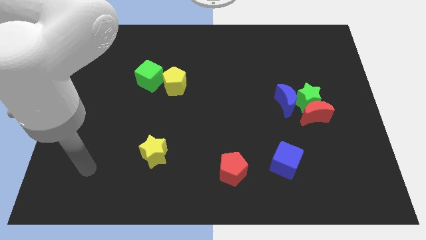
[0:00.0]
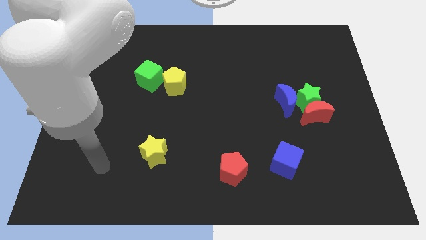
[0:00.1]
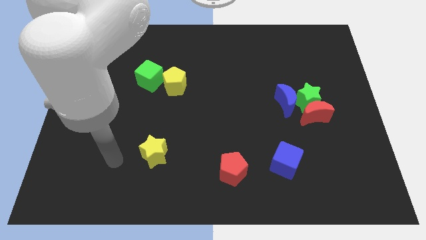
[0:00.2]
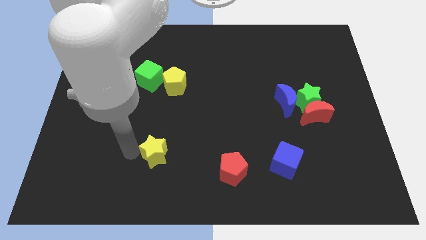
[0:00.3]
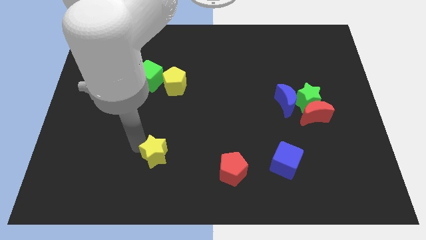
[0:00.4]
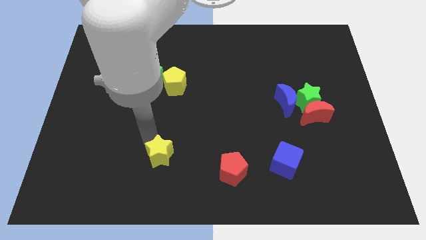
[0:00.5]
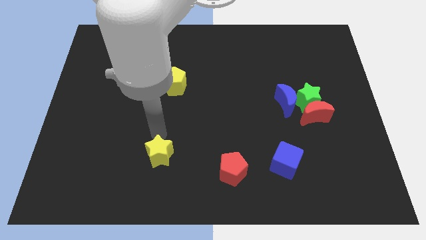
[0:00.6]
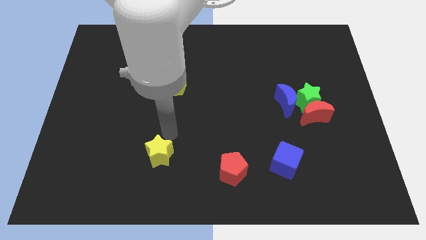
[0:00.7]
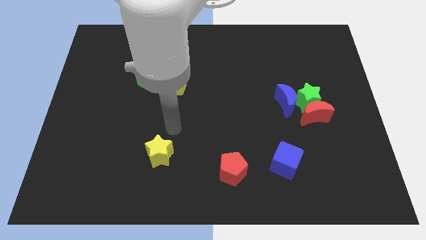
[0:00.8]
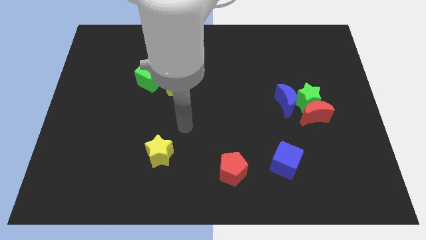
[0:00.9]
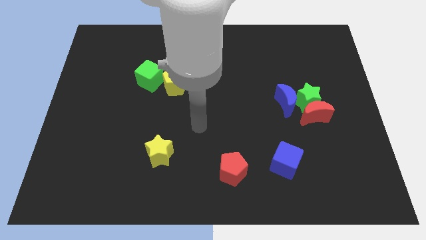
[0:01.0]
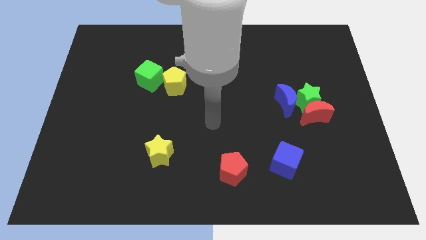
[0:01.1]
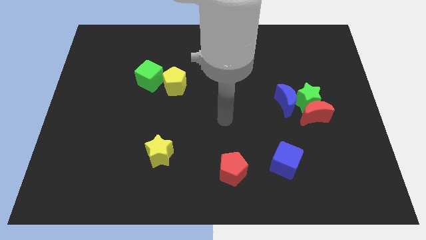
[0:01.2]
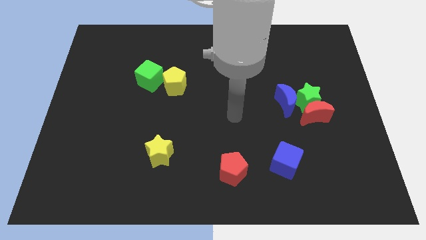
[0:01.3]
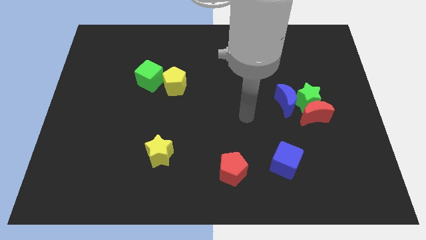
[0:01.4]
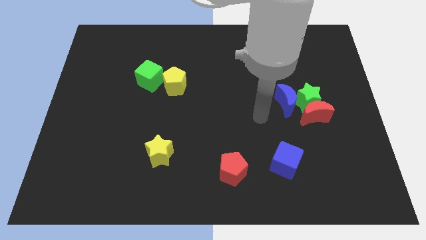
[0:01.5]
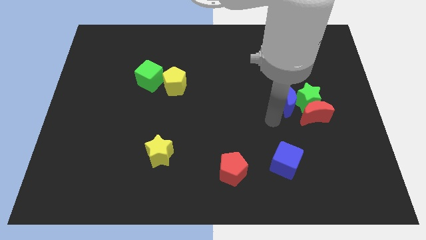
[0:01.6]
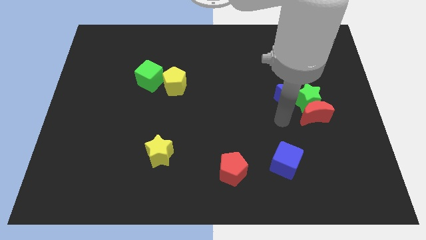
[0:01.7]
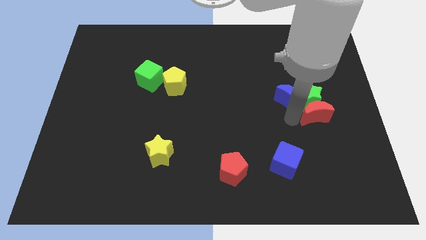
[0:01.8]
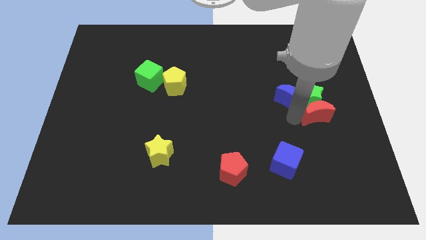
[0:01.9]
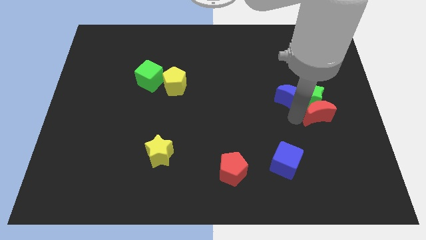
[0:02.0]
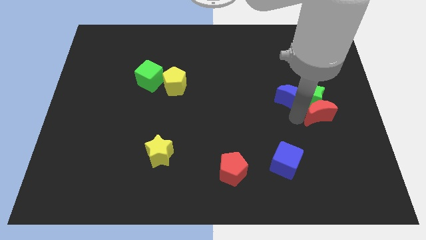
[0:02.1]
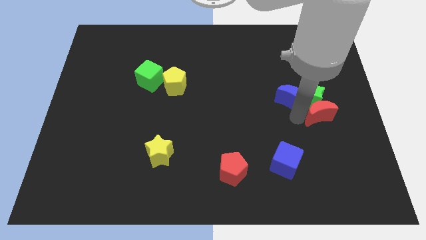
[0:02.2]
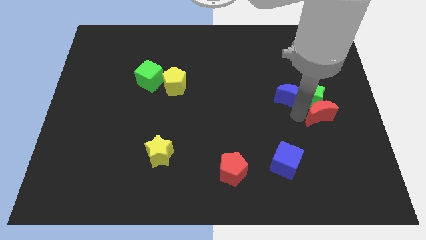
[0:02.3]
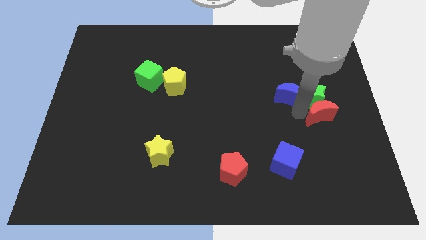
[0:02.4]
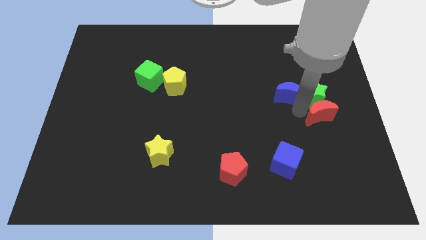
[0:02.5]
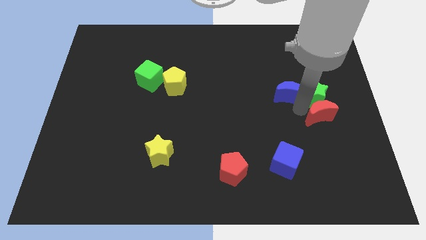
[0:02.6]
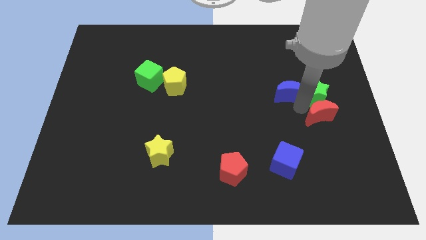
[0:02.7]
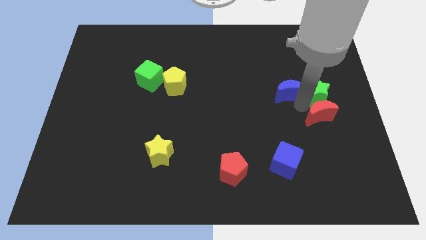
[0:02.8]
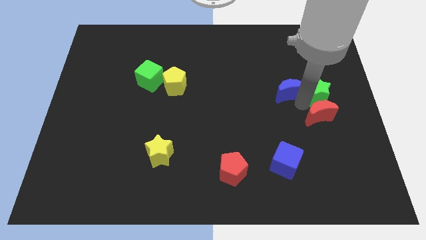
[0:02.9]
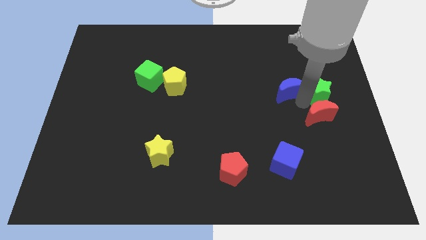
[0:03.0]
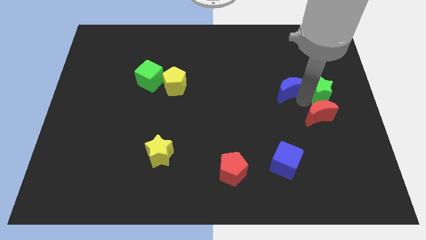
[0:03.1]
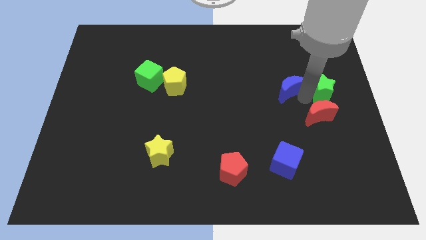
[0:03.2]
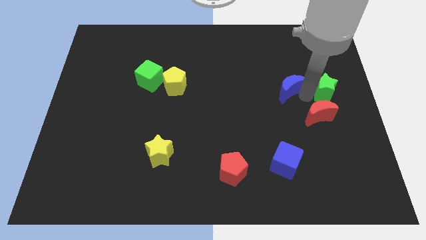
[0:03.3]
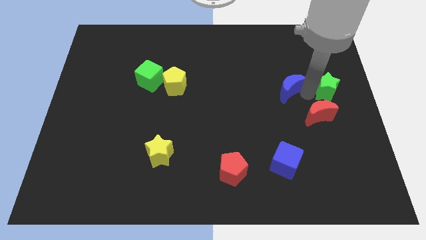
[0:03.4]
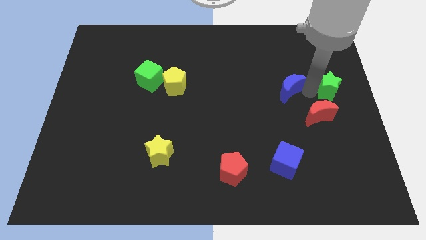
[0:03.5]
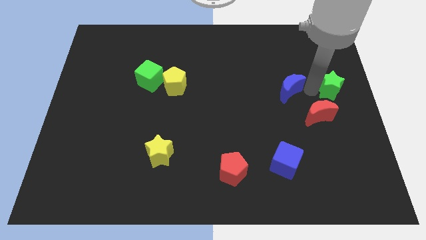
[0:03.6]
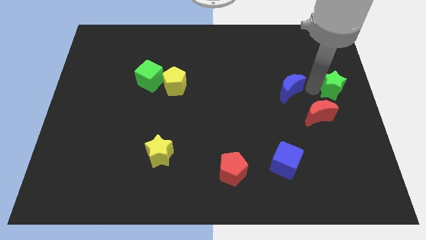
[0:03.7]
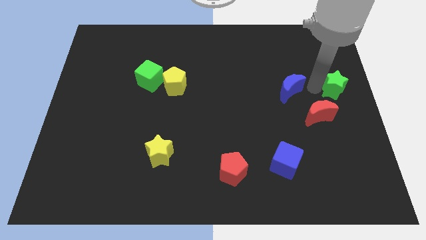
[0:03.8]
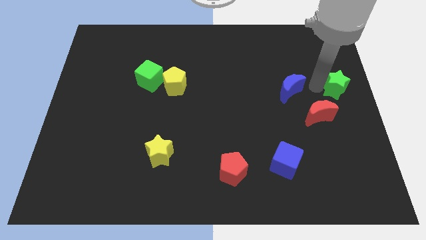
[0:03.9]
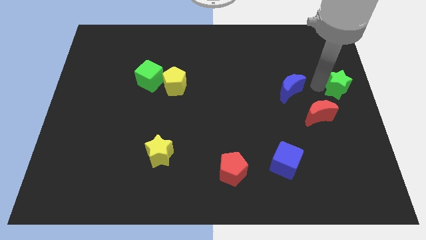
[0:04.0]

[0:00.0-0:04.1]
move the green star away from the red moon and blue moon

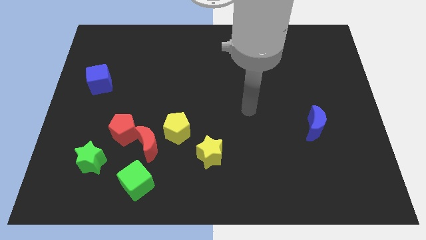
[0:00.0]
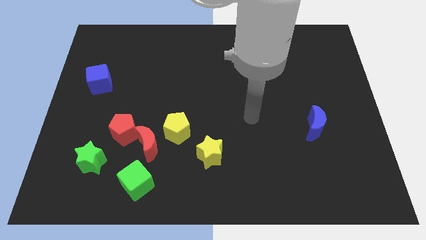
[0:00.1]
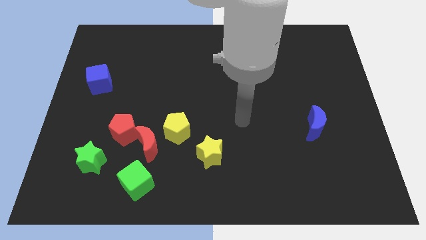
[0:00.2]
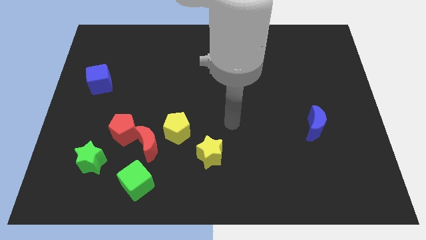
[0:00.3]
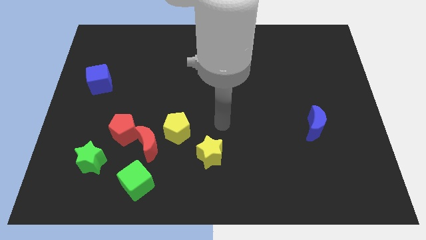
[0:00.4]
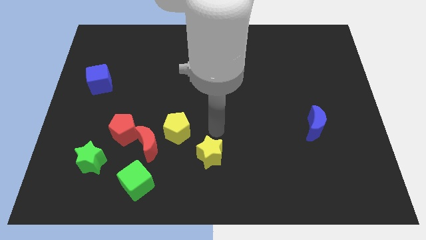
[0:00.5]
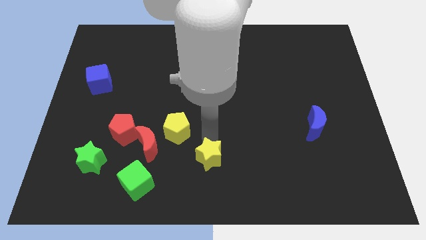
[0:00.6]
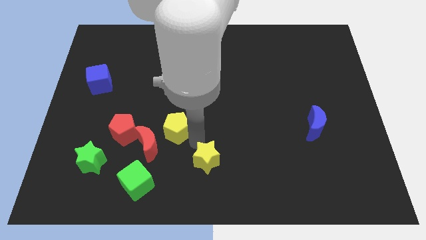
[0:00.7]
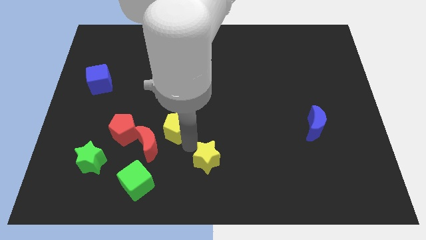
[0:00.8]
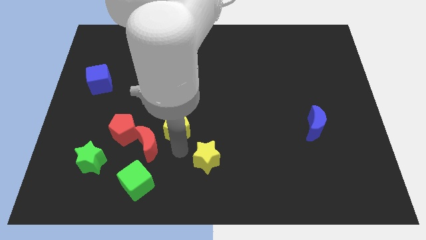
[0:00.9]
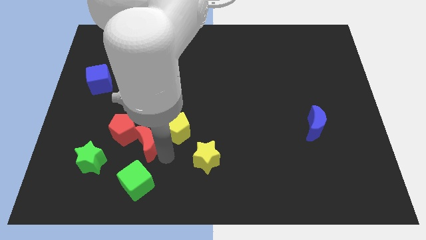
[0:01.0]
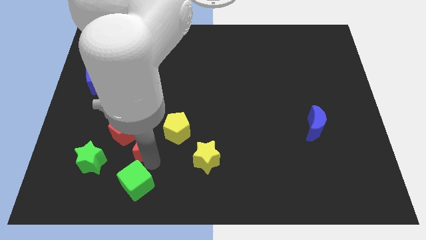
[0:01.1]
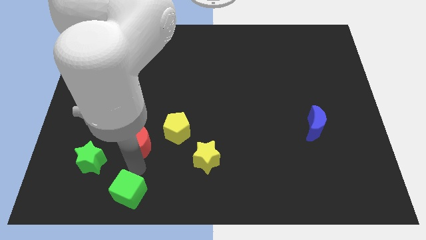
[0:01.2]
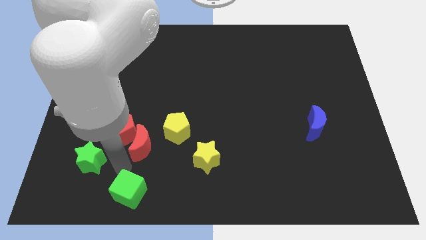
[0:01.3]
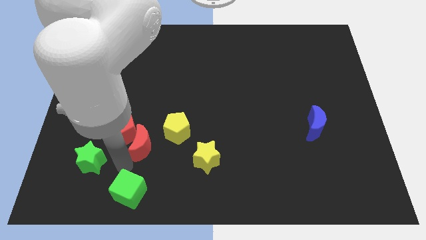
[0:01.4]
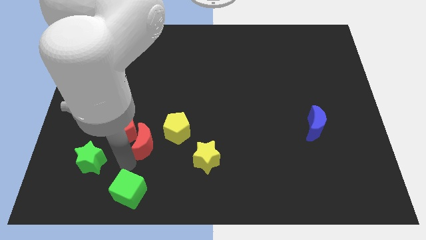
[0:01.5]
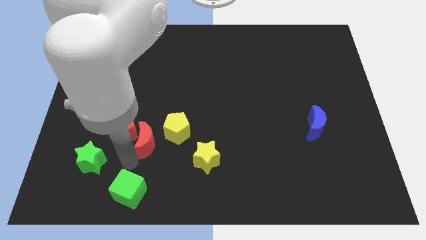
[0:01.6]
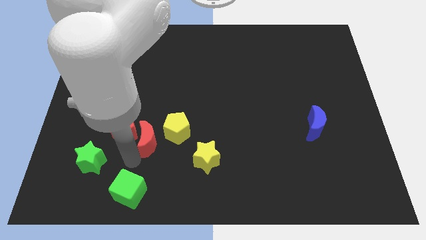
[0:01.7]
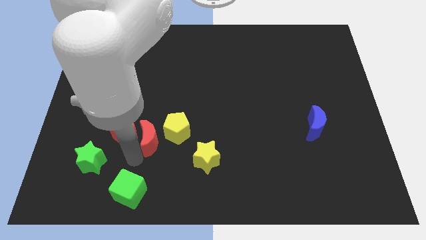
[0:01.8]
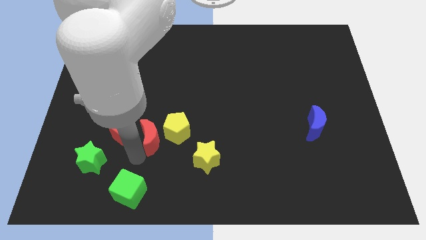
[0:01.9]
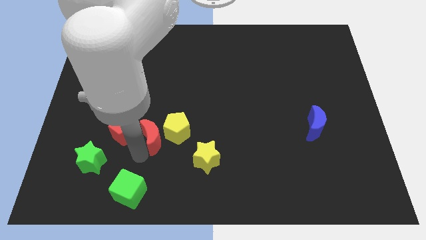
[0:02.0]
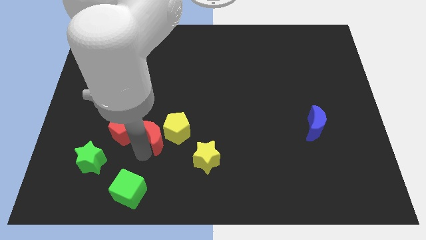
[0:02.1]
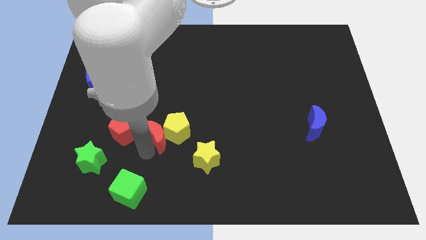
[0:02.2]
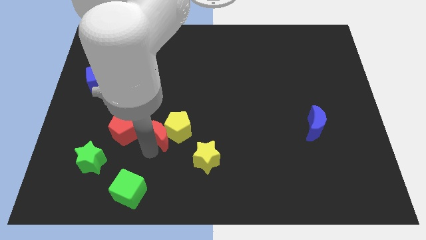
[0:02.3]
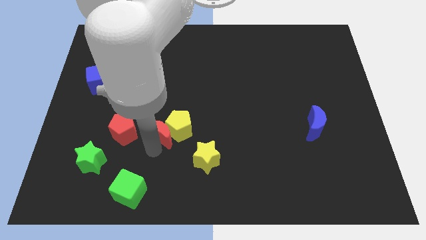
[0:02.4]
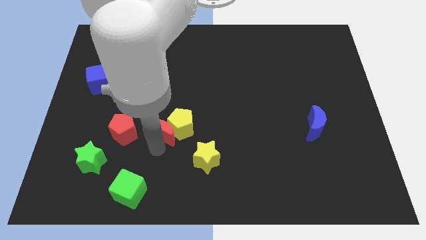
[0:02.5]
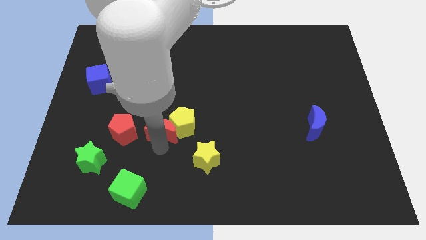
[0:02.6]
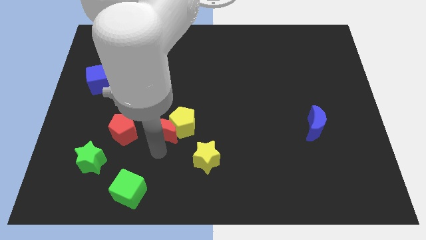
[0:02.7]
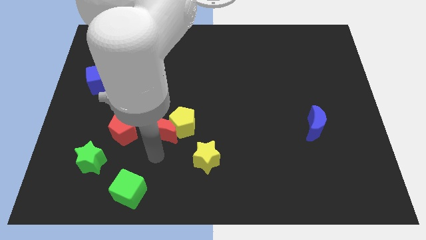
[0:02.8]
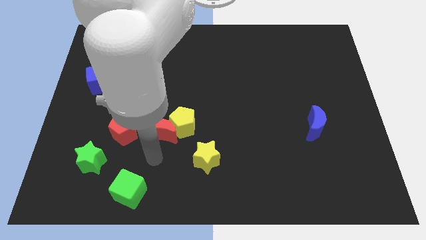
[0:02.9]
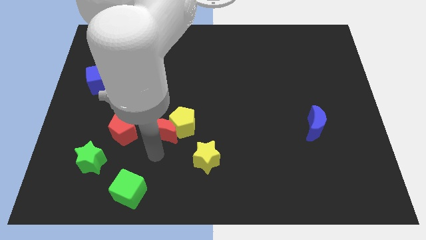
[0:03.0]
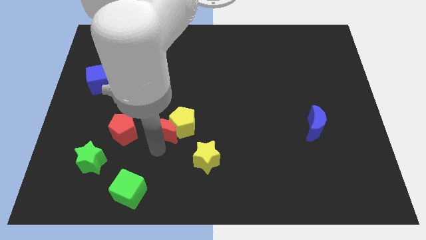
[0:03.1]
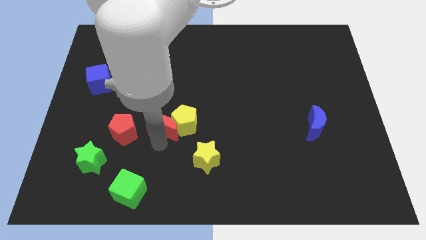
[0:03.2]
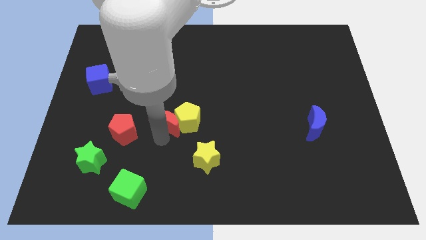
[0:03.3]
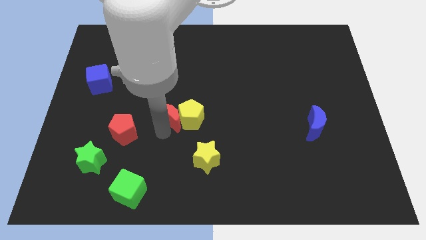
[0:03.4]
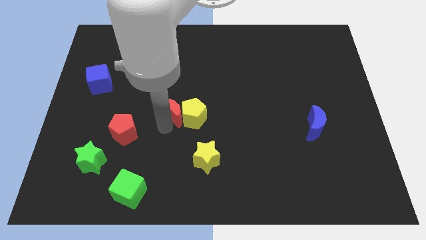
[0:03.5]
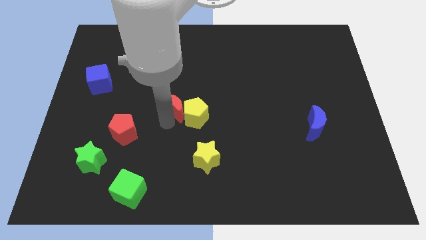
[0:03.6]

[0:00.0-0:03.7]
pull the red moon apart from the red pentagon, yellow pentagon, and green cube

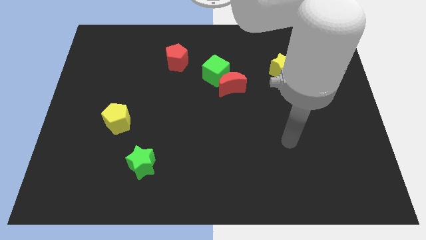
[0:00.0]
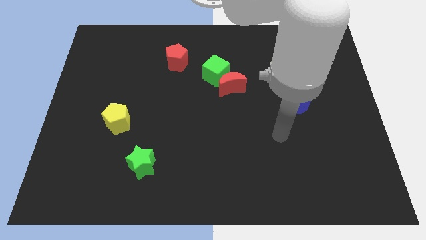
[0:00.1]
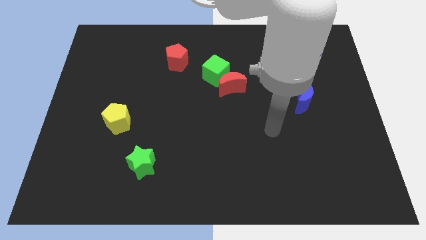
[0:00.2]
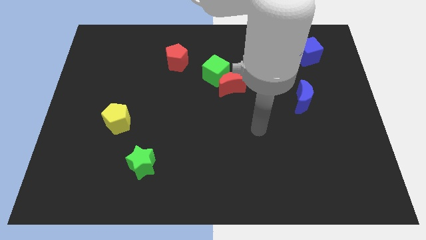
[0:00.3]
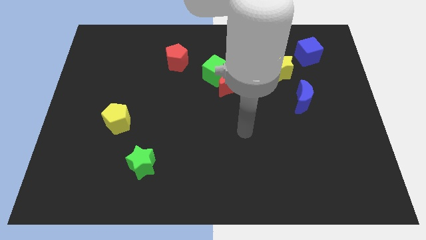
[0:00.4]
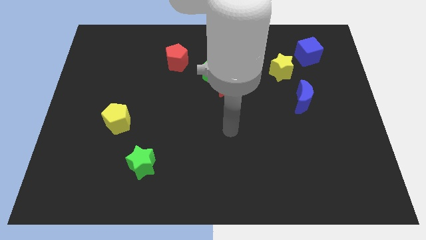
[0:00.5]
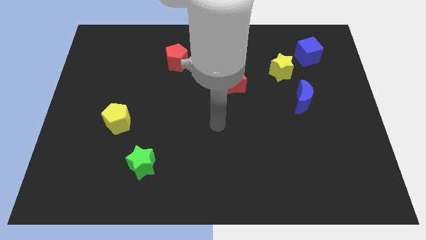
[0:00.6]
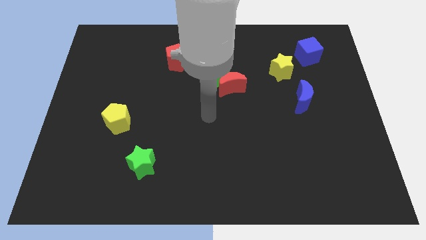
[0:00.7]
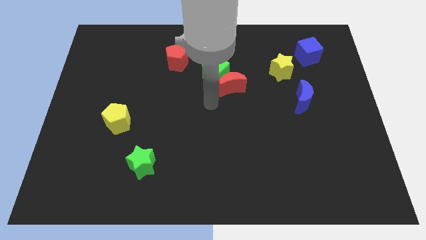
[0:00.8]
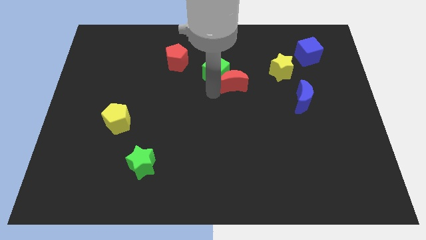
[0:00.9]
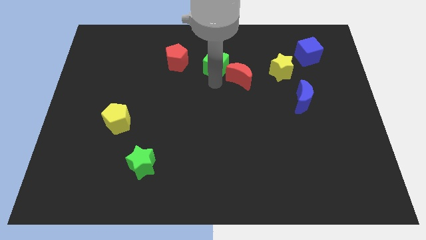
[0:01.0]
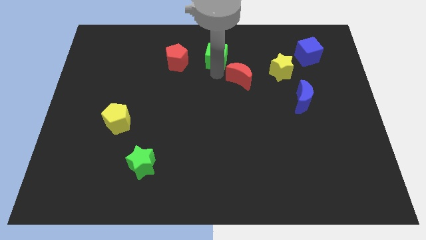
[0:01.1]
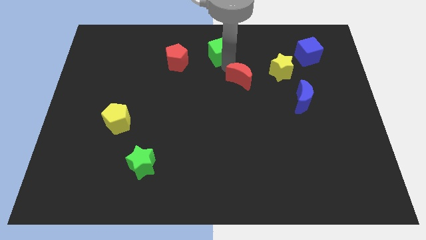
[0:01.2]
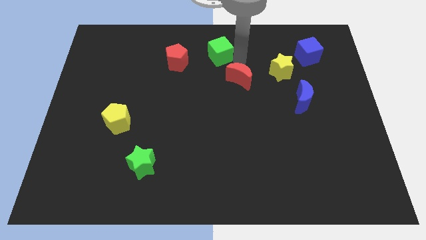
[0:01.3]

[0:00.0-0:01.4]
move the red moon away from the green cube
